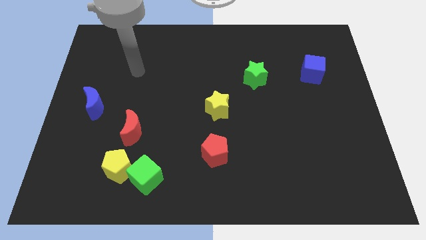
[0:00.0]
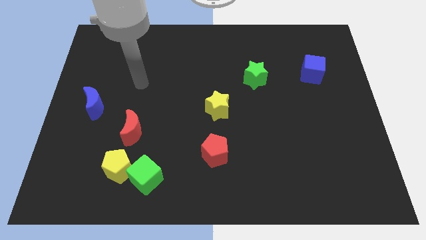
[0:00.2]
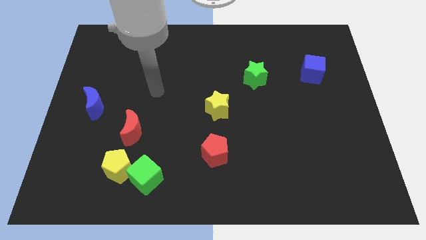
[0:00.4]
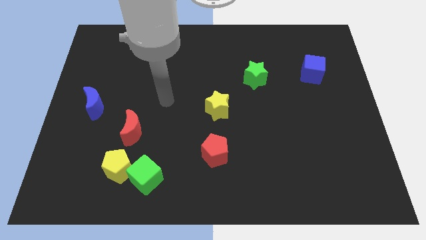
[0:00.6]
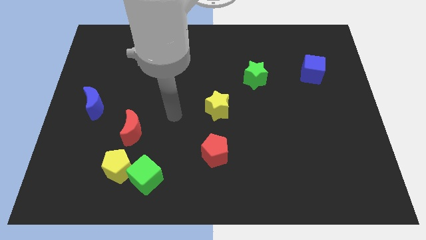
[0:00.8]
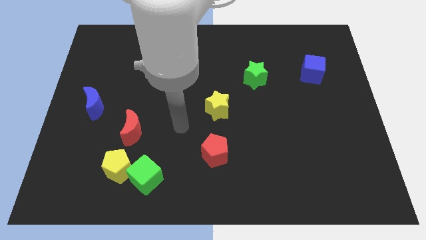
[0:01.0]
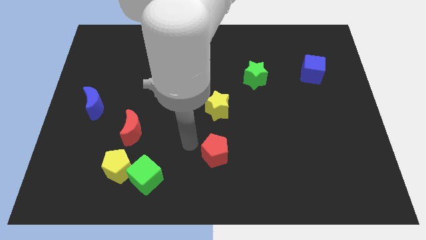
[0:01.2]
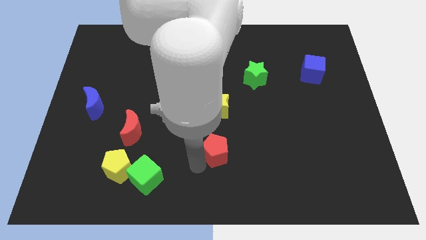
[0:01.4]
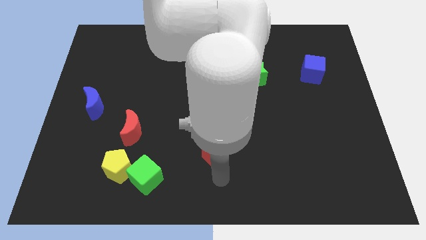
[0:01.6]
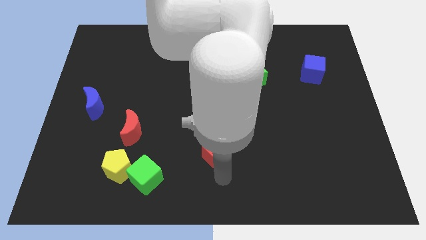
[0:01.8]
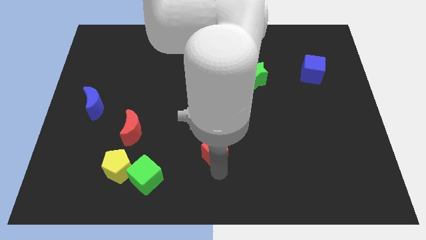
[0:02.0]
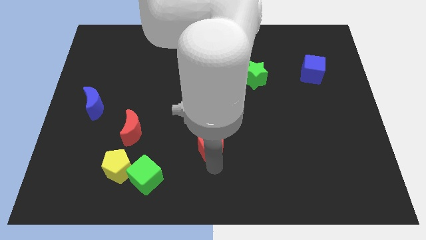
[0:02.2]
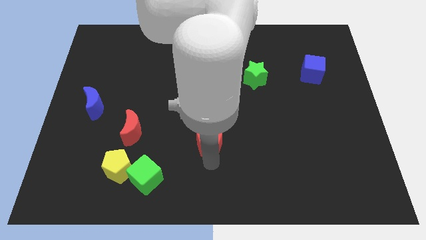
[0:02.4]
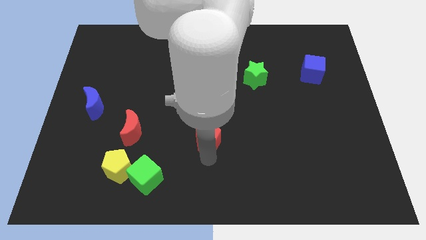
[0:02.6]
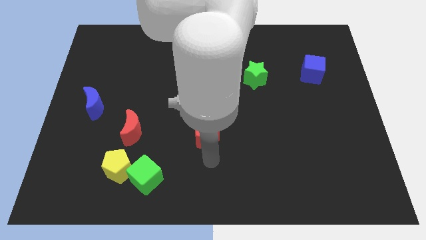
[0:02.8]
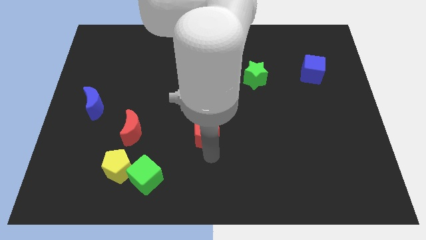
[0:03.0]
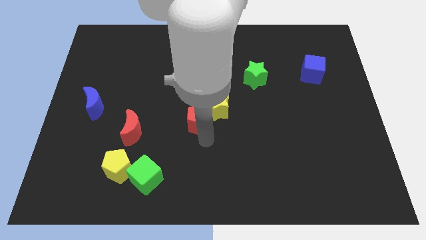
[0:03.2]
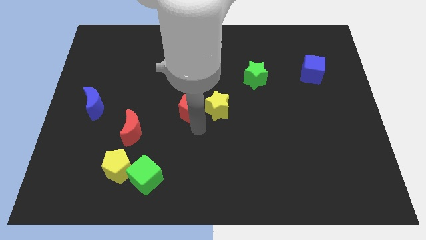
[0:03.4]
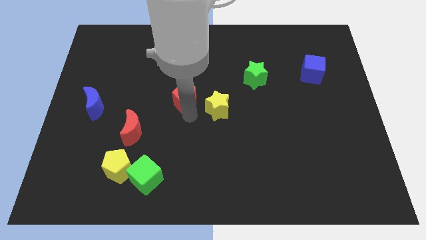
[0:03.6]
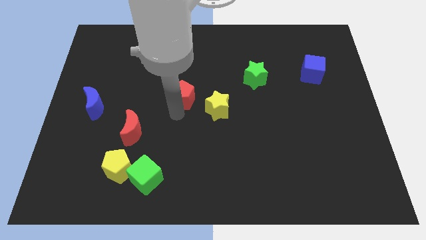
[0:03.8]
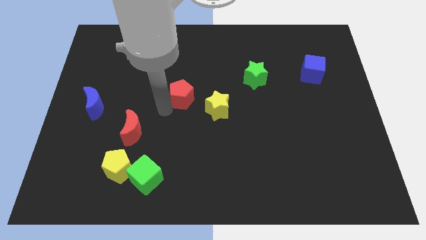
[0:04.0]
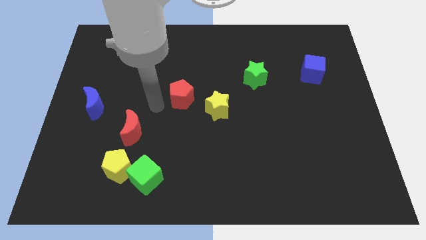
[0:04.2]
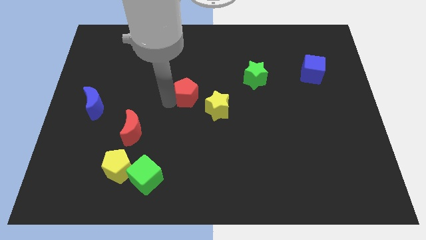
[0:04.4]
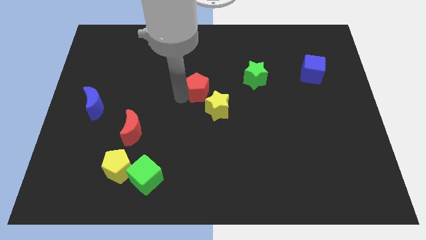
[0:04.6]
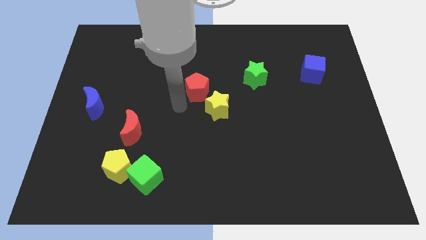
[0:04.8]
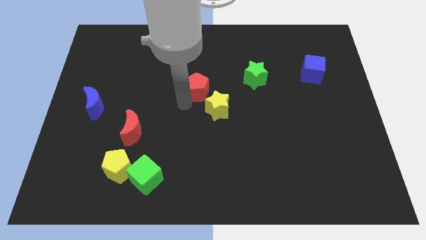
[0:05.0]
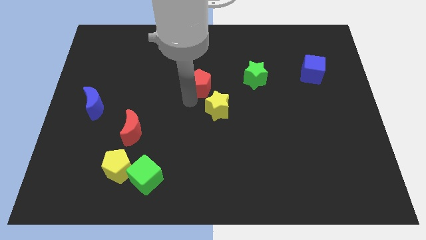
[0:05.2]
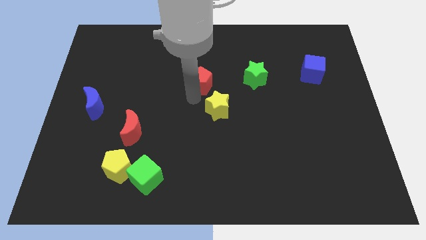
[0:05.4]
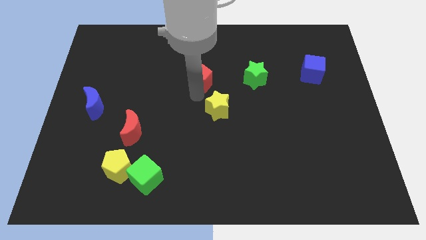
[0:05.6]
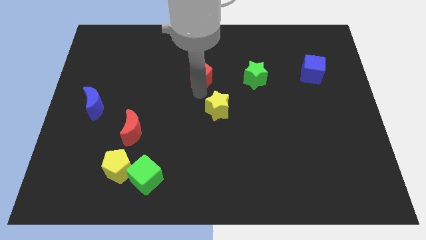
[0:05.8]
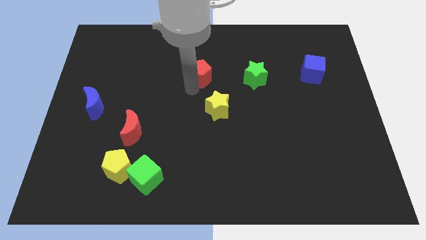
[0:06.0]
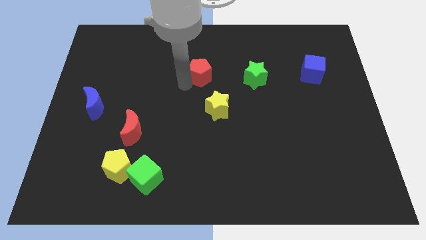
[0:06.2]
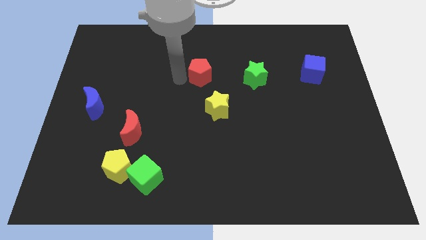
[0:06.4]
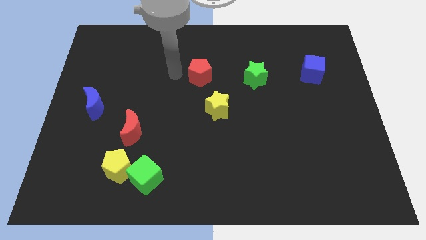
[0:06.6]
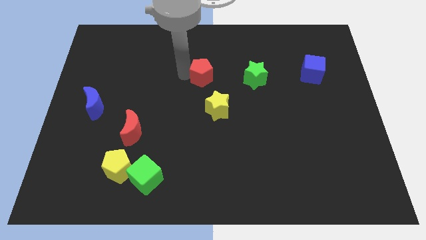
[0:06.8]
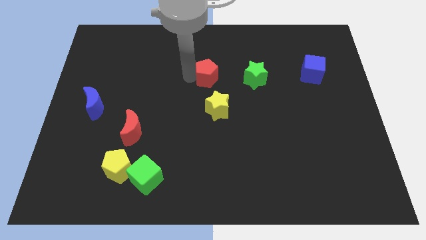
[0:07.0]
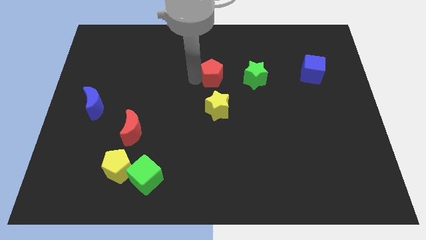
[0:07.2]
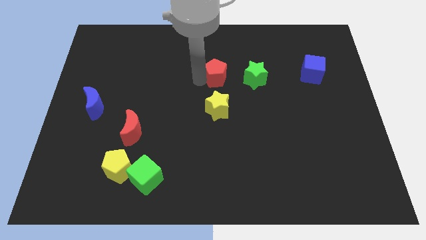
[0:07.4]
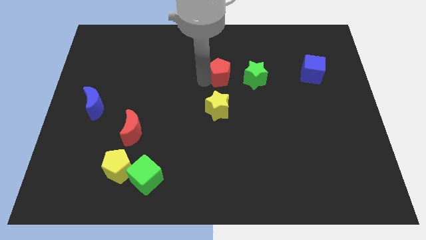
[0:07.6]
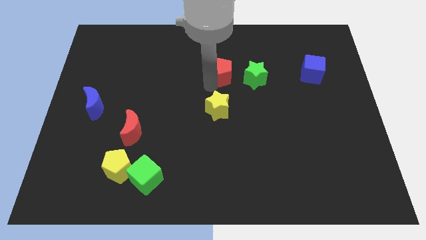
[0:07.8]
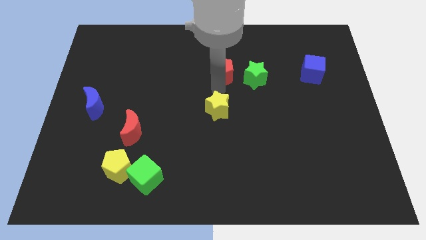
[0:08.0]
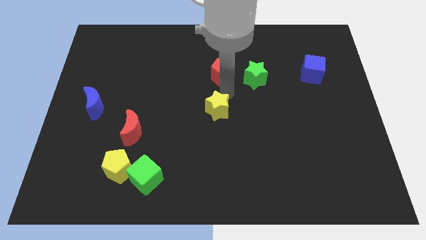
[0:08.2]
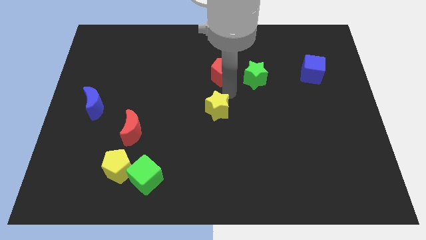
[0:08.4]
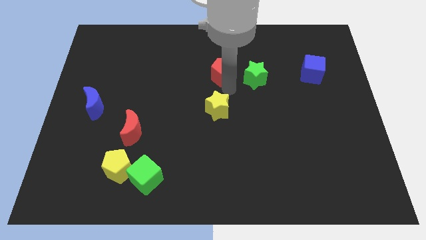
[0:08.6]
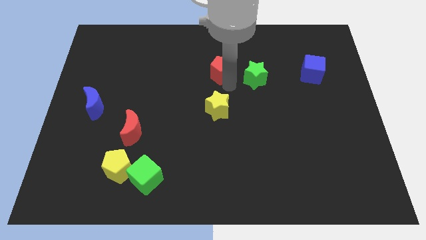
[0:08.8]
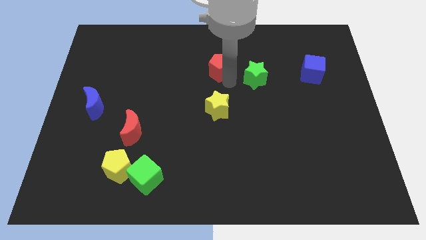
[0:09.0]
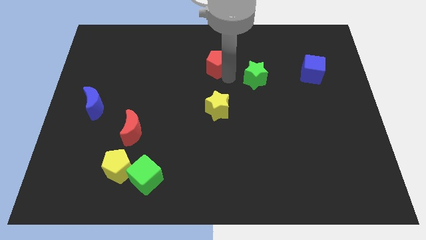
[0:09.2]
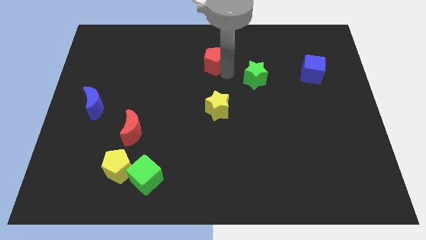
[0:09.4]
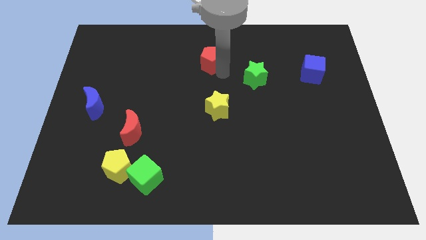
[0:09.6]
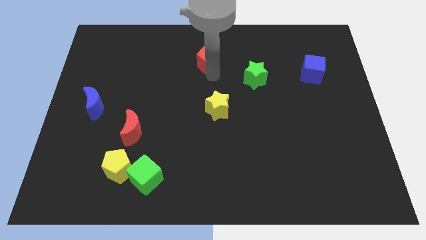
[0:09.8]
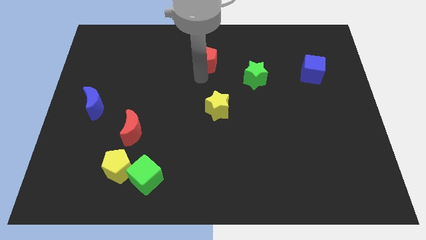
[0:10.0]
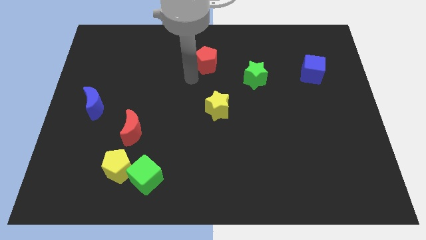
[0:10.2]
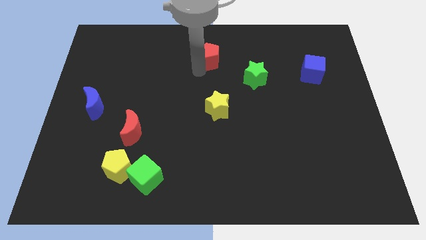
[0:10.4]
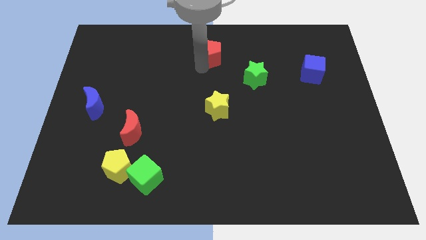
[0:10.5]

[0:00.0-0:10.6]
push the red pentagon to the top side

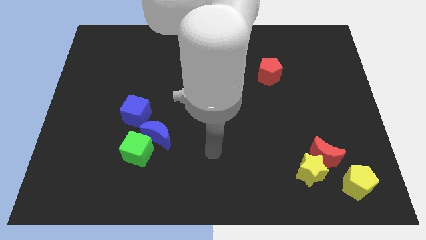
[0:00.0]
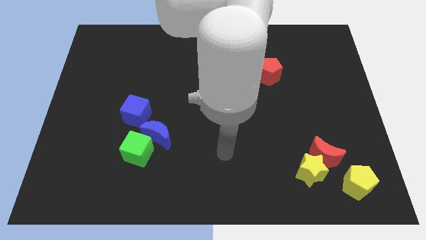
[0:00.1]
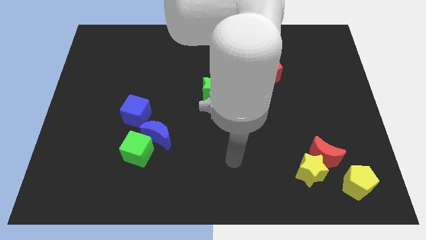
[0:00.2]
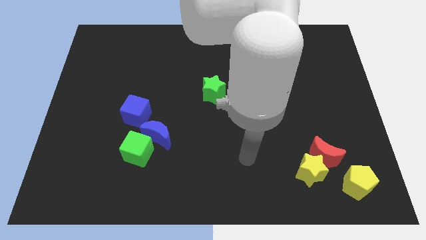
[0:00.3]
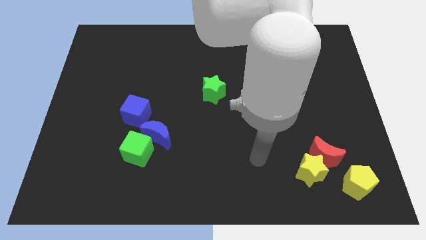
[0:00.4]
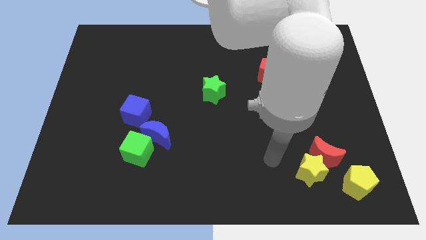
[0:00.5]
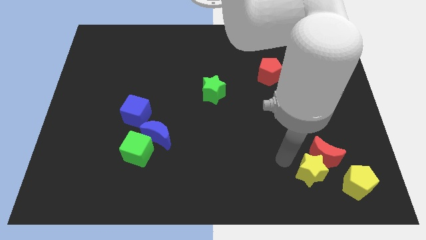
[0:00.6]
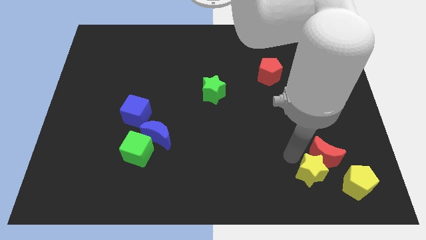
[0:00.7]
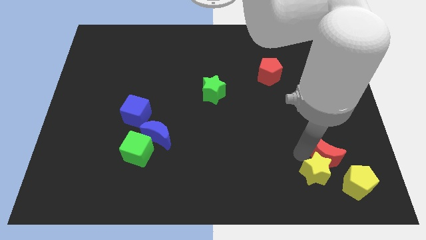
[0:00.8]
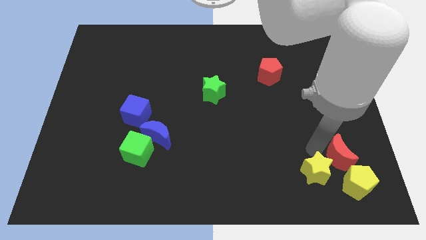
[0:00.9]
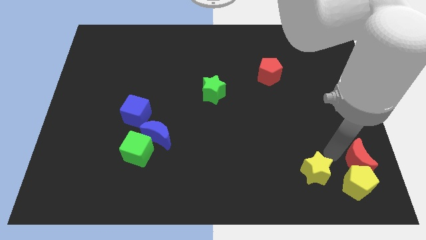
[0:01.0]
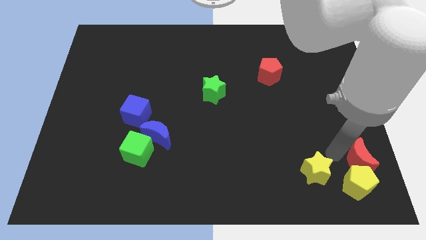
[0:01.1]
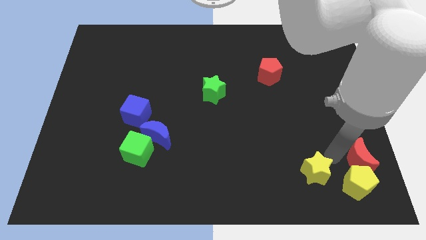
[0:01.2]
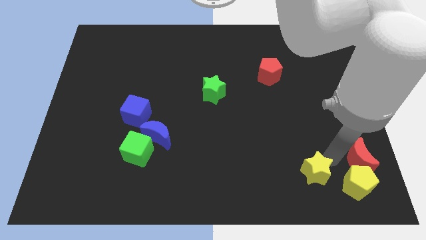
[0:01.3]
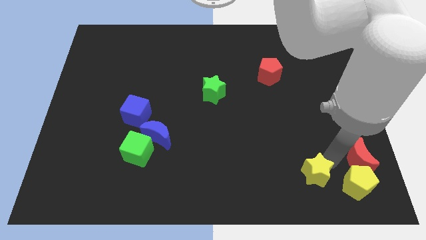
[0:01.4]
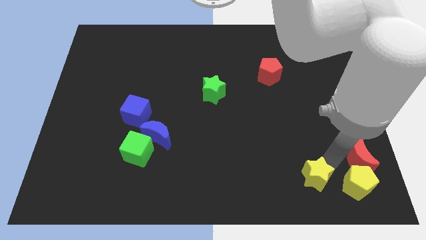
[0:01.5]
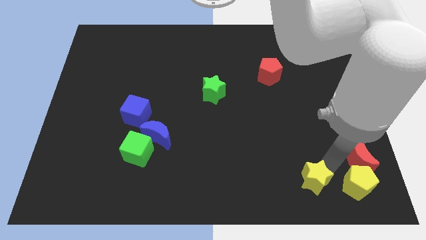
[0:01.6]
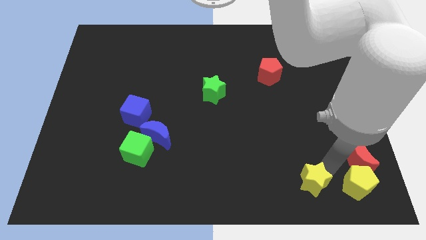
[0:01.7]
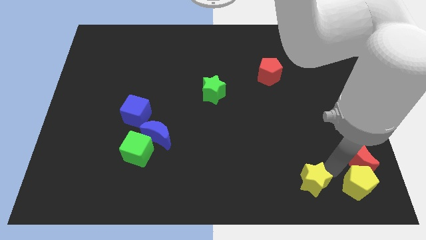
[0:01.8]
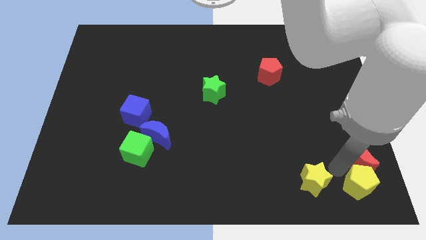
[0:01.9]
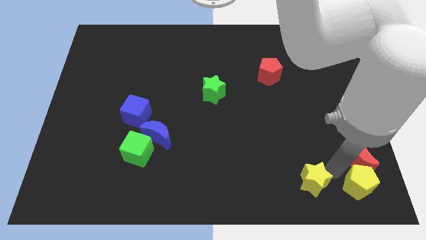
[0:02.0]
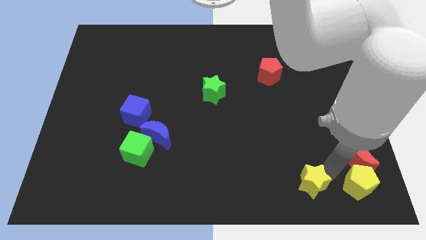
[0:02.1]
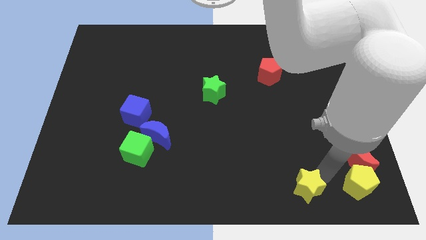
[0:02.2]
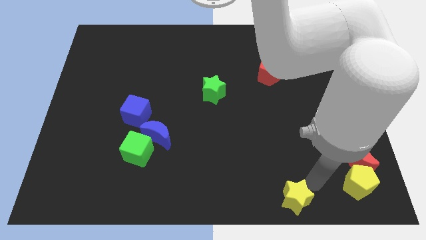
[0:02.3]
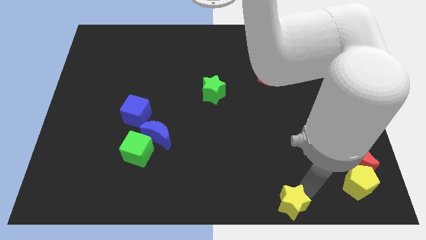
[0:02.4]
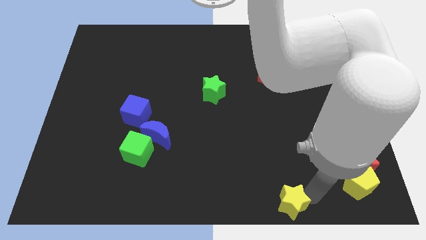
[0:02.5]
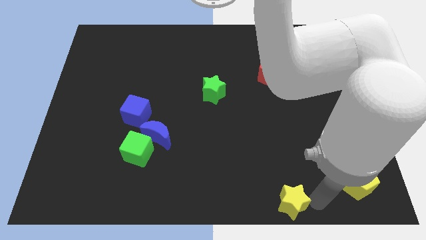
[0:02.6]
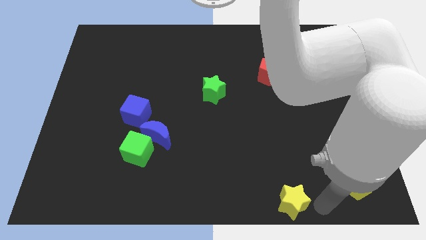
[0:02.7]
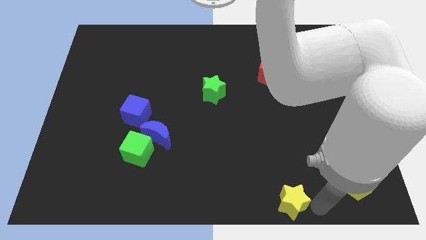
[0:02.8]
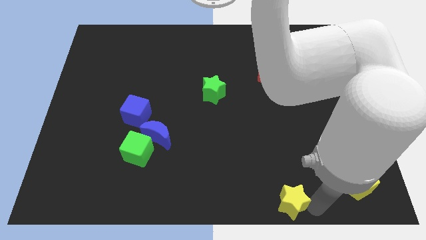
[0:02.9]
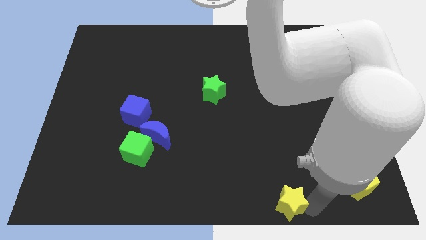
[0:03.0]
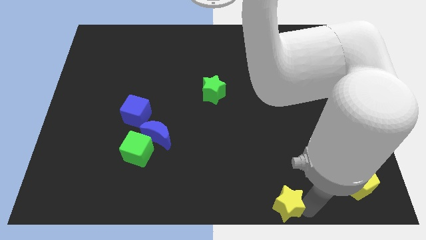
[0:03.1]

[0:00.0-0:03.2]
put the yellow star to the bottom side
